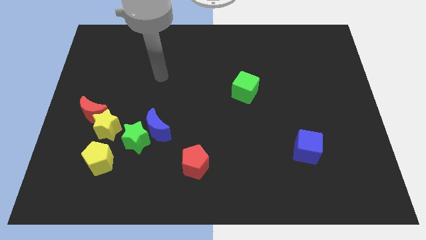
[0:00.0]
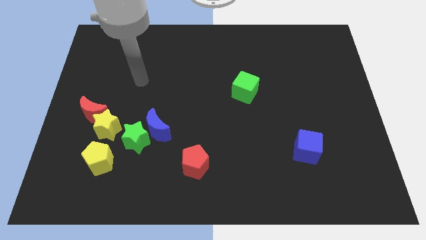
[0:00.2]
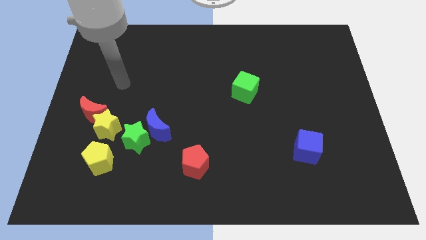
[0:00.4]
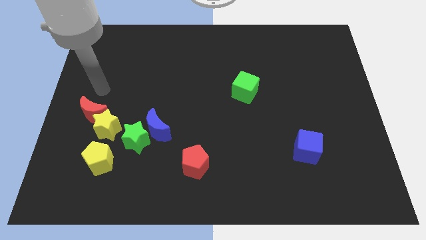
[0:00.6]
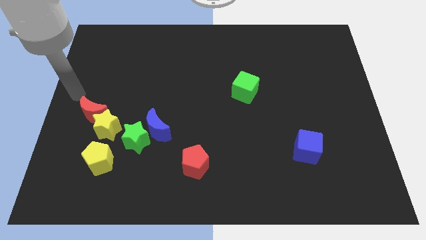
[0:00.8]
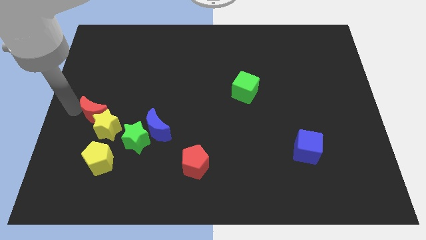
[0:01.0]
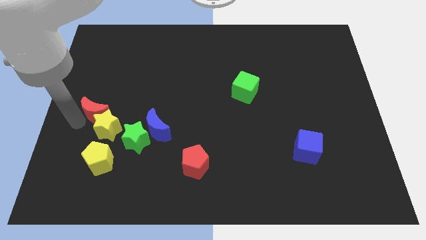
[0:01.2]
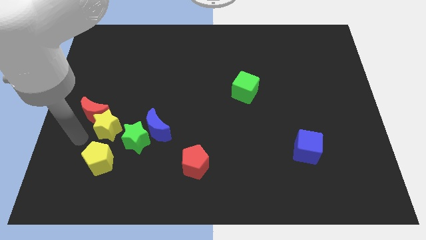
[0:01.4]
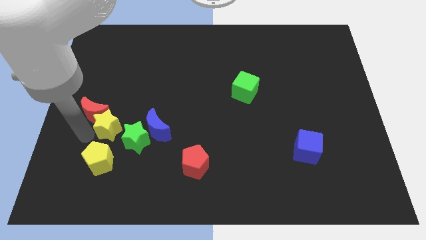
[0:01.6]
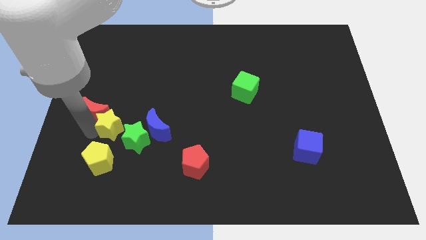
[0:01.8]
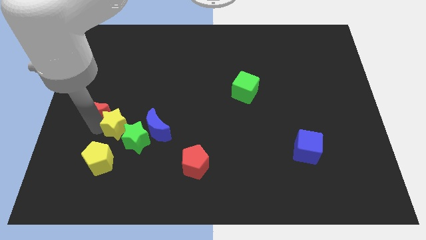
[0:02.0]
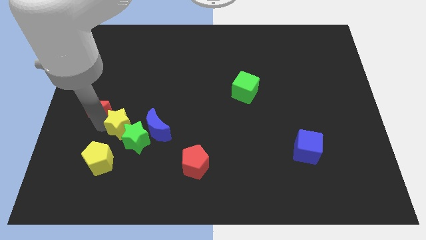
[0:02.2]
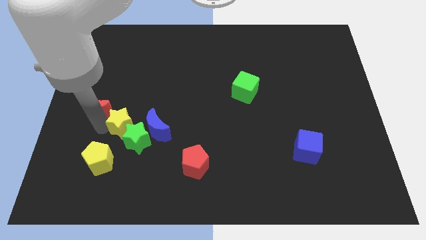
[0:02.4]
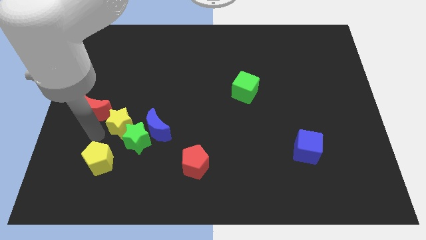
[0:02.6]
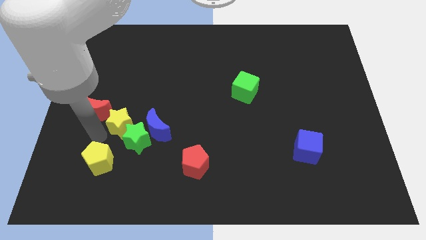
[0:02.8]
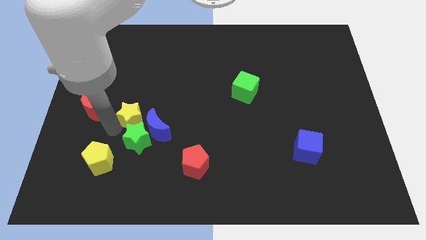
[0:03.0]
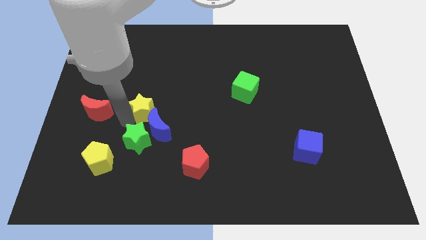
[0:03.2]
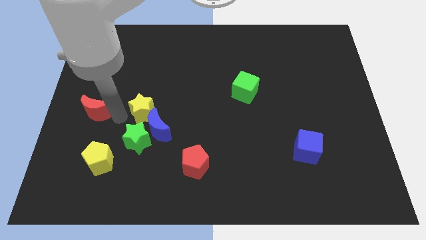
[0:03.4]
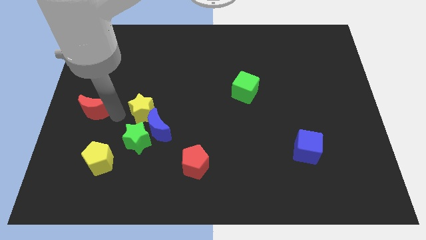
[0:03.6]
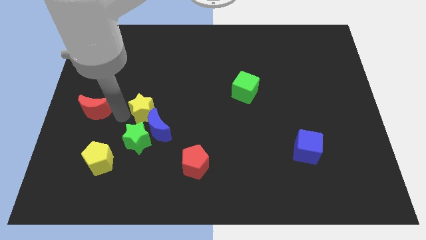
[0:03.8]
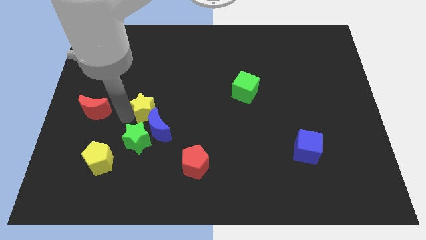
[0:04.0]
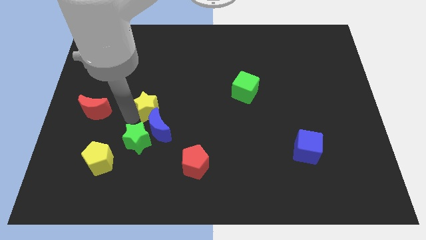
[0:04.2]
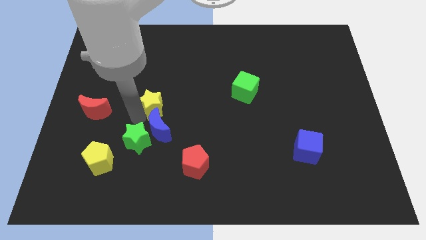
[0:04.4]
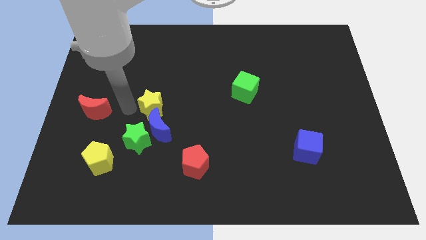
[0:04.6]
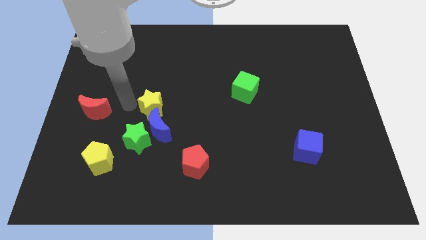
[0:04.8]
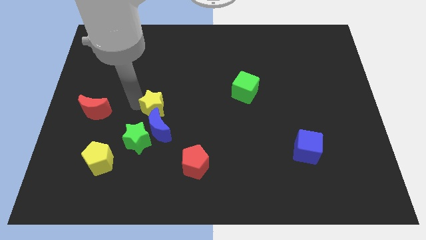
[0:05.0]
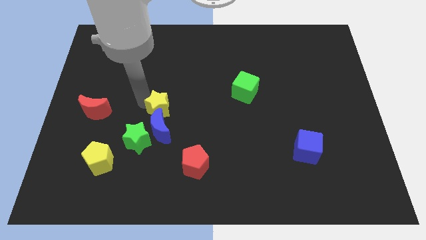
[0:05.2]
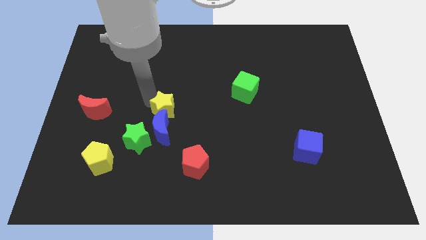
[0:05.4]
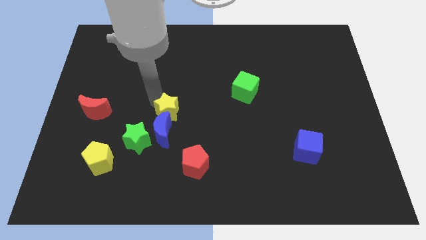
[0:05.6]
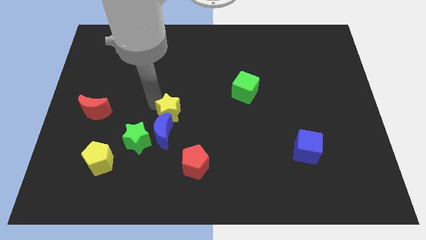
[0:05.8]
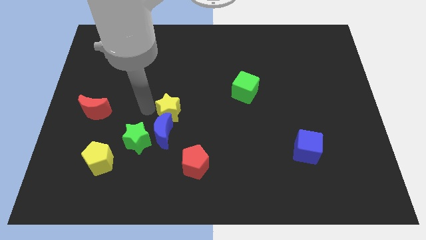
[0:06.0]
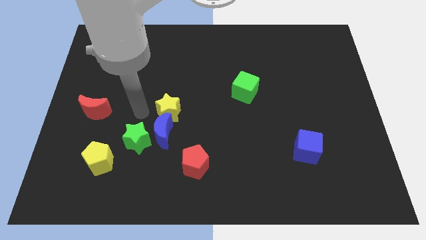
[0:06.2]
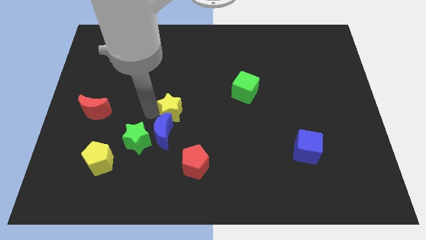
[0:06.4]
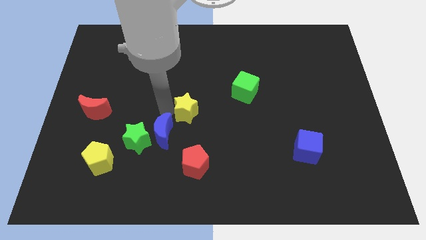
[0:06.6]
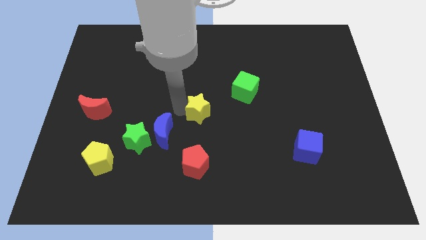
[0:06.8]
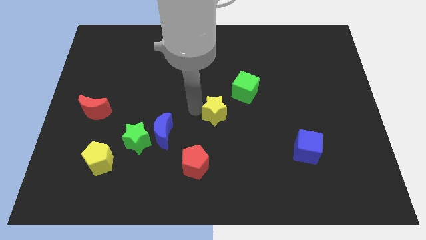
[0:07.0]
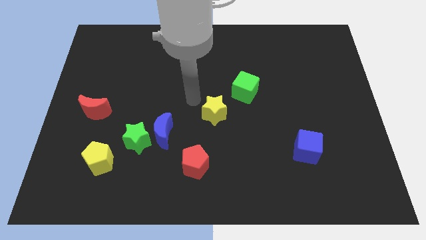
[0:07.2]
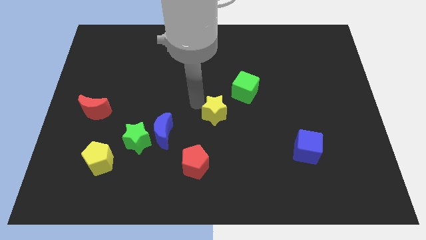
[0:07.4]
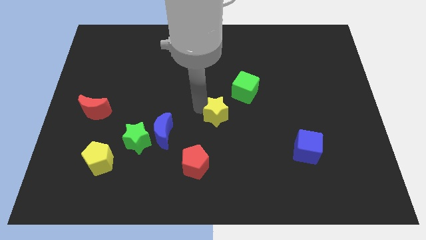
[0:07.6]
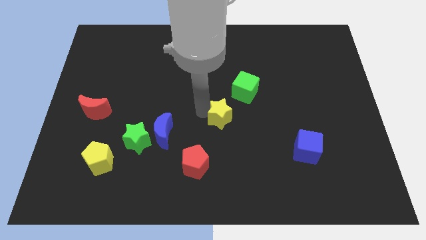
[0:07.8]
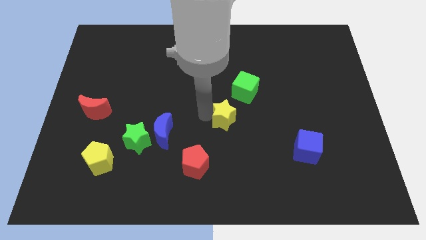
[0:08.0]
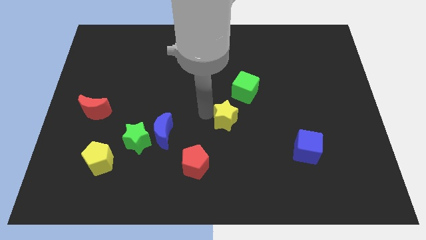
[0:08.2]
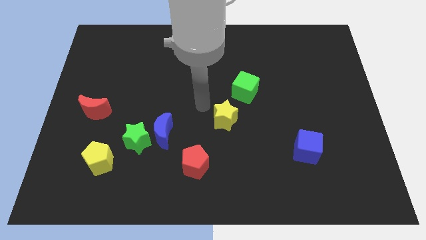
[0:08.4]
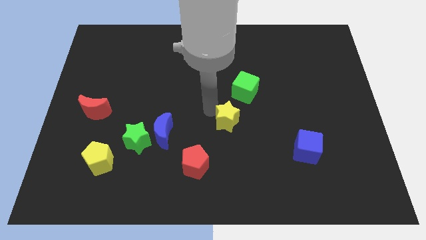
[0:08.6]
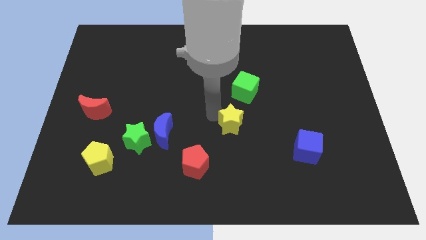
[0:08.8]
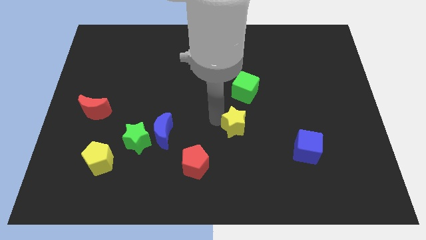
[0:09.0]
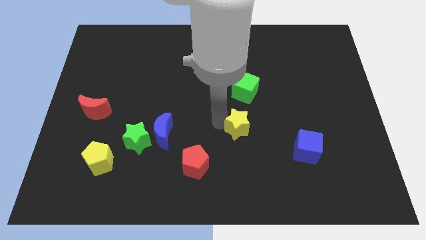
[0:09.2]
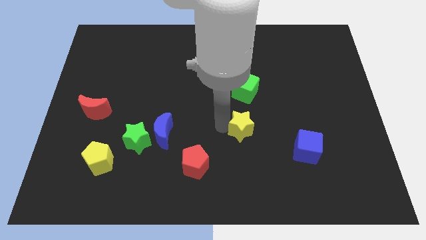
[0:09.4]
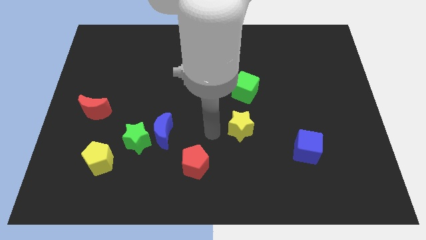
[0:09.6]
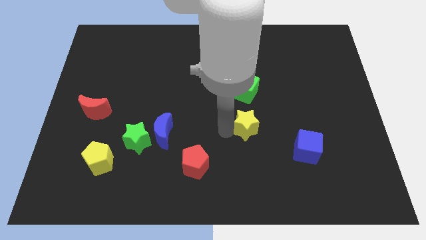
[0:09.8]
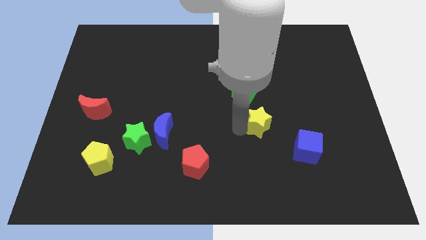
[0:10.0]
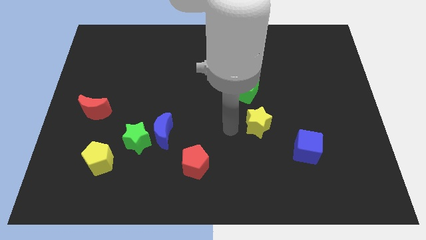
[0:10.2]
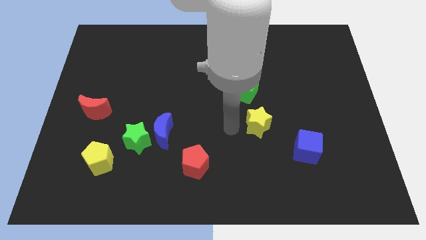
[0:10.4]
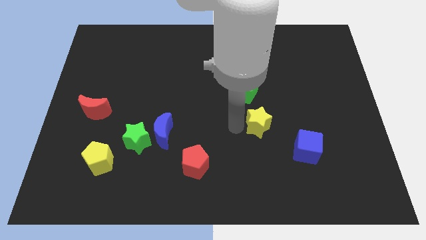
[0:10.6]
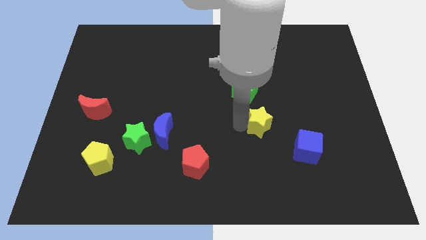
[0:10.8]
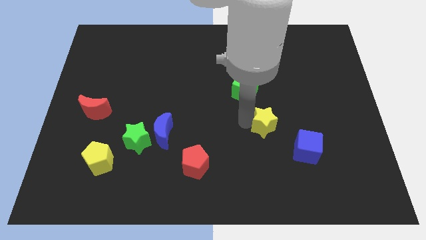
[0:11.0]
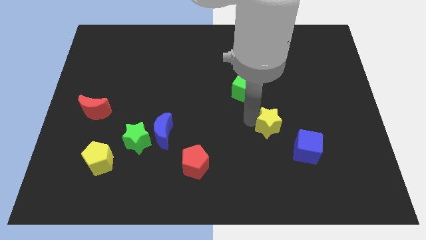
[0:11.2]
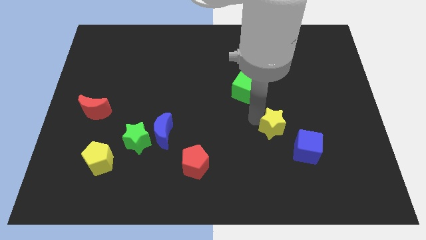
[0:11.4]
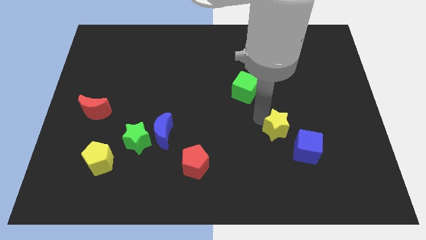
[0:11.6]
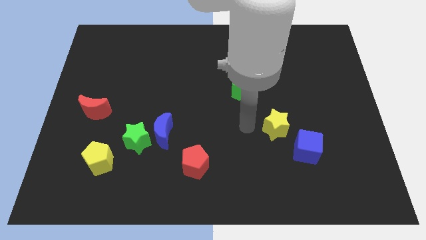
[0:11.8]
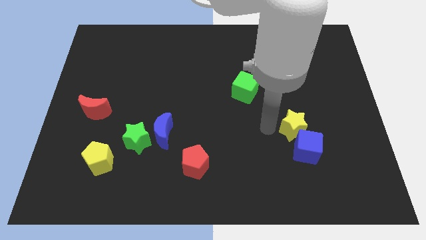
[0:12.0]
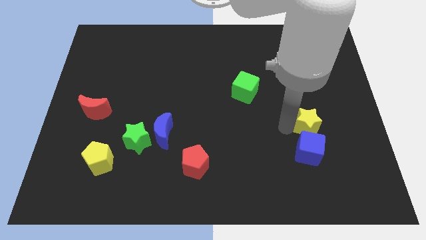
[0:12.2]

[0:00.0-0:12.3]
slide the yellow star to the top right of the blue cube

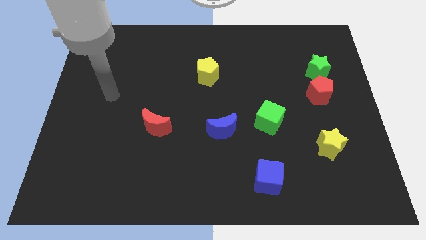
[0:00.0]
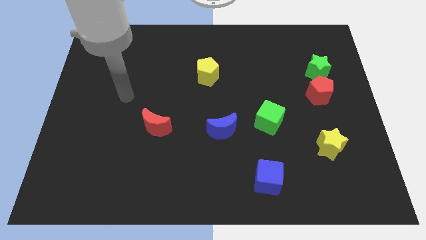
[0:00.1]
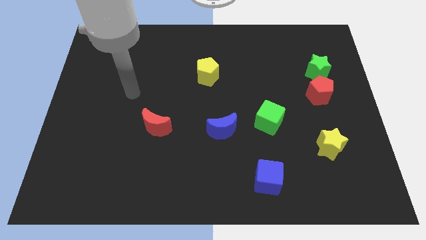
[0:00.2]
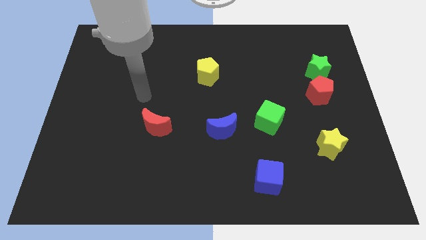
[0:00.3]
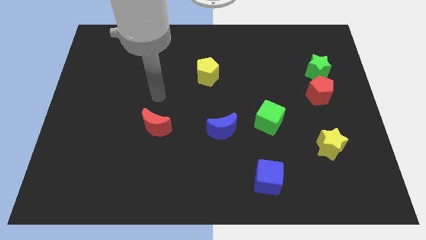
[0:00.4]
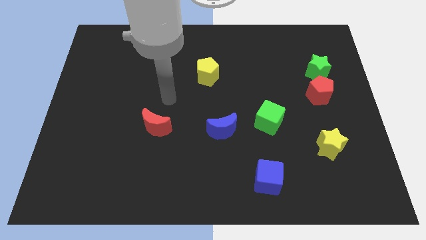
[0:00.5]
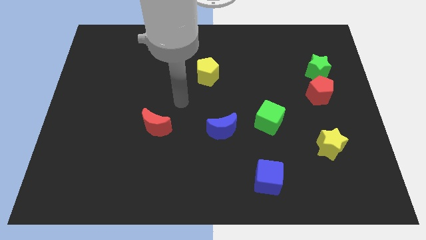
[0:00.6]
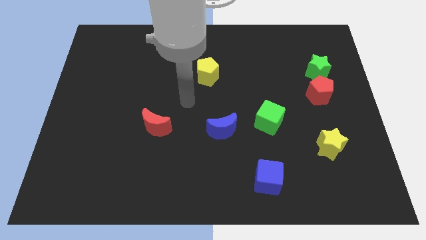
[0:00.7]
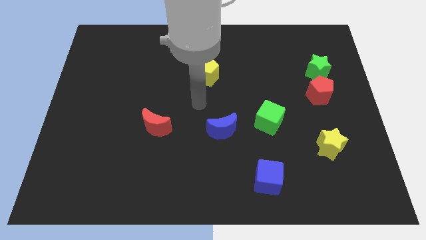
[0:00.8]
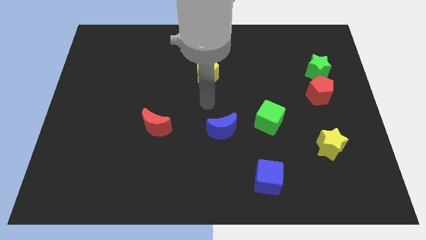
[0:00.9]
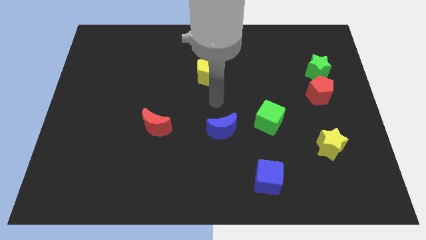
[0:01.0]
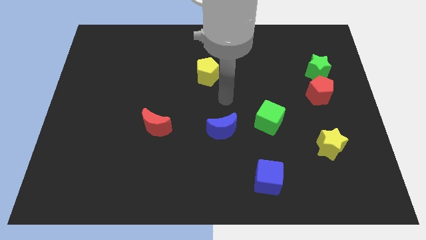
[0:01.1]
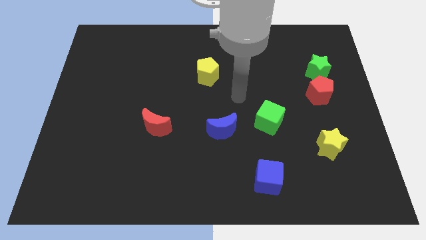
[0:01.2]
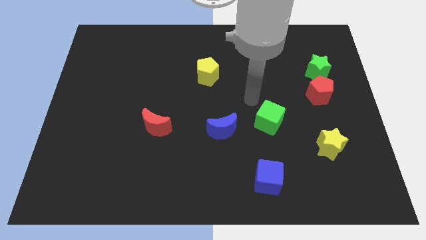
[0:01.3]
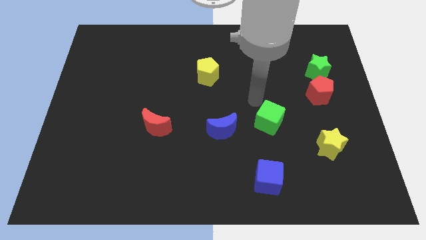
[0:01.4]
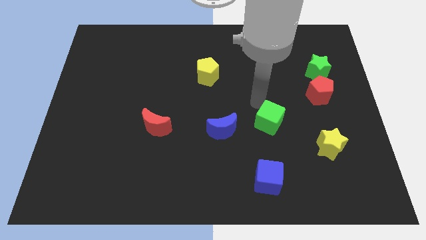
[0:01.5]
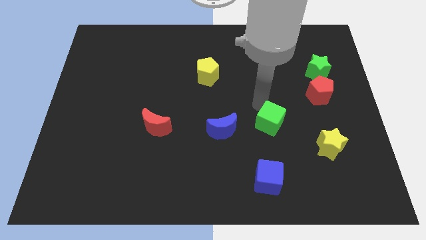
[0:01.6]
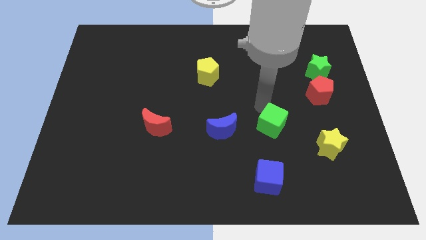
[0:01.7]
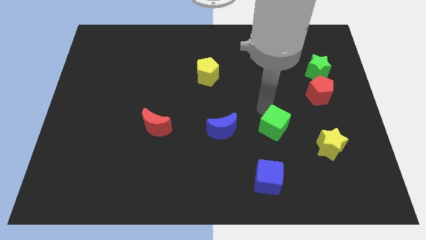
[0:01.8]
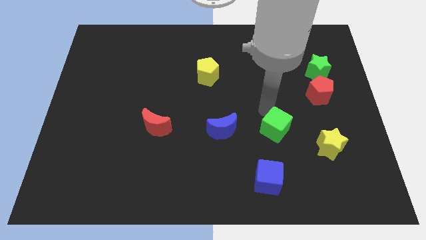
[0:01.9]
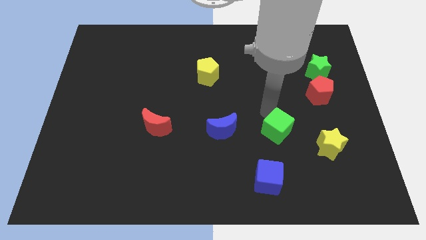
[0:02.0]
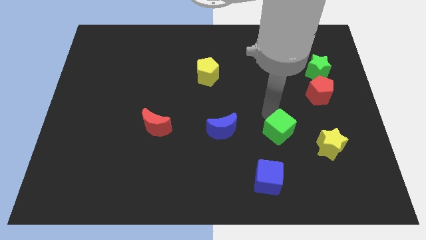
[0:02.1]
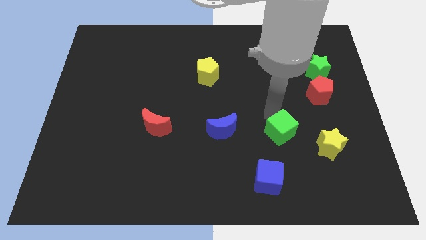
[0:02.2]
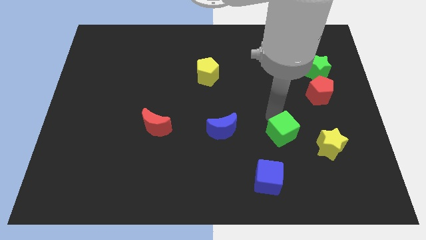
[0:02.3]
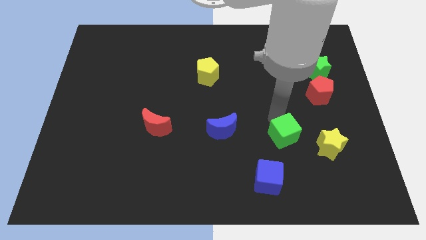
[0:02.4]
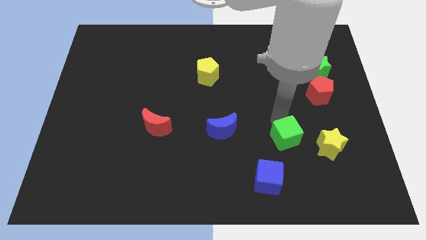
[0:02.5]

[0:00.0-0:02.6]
slide the green cube to the top right of the blue cube
